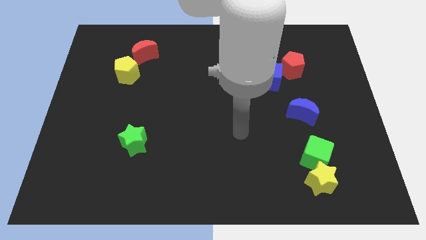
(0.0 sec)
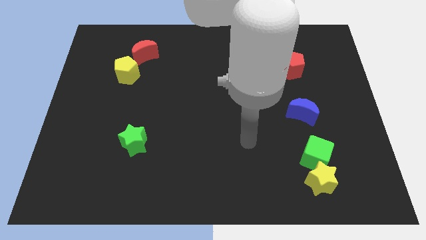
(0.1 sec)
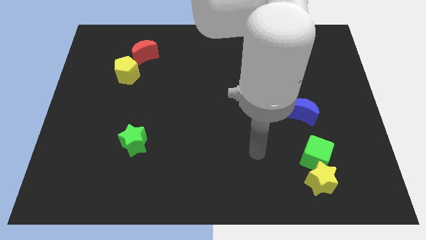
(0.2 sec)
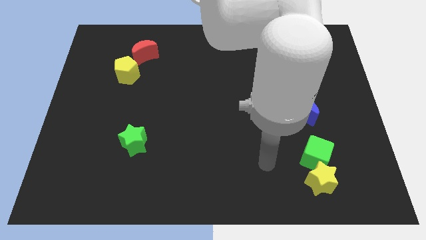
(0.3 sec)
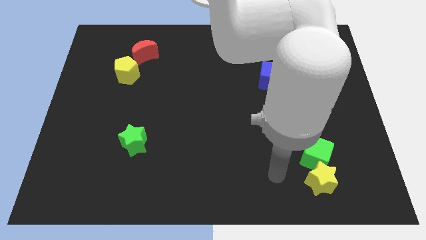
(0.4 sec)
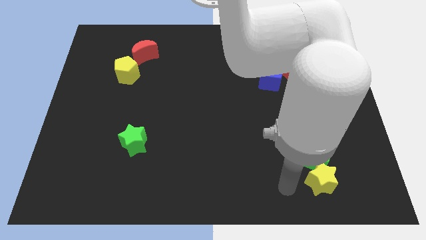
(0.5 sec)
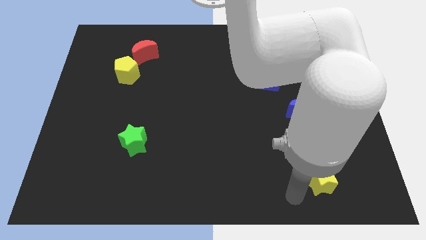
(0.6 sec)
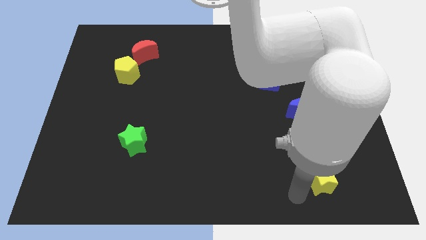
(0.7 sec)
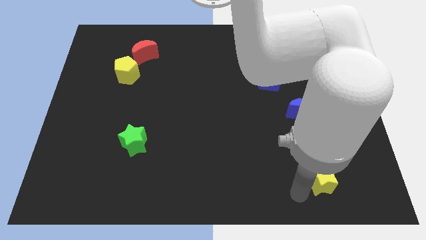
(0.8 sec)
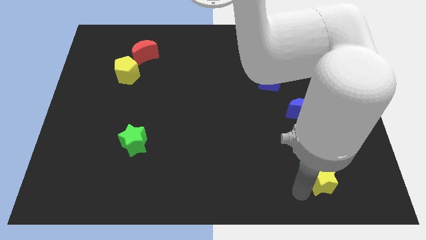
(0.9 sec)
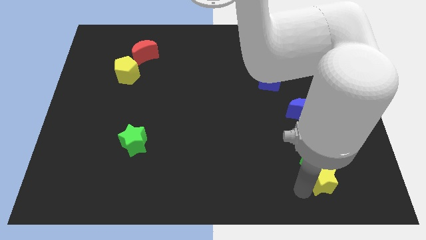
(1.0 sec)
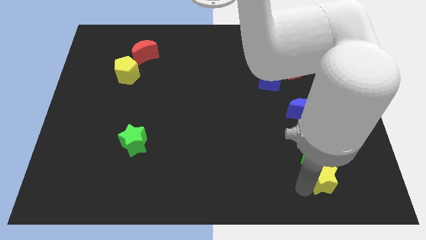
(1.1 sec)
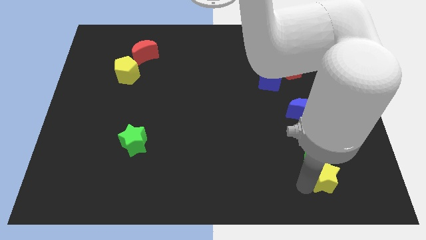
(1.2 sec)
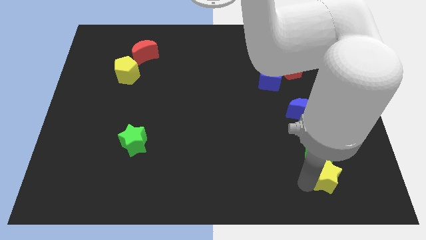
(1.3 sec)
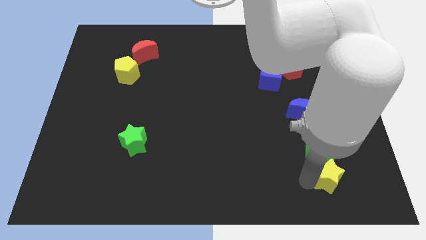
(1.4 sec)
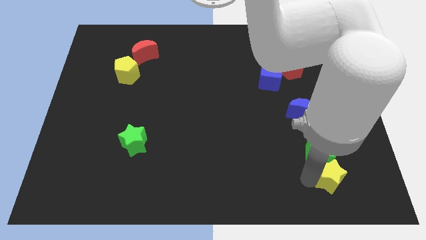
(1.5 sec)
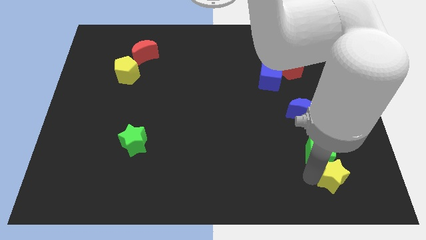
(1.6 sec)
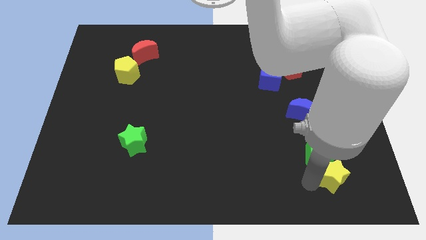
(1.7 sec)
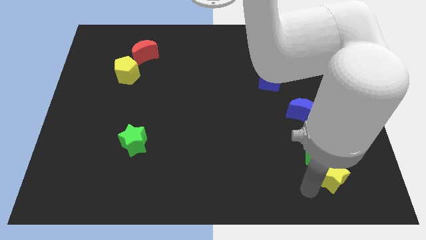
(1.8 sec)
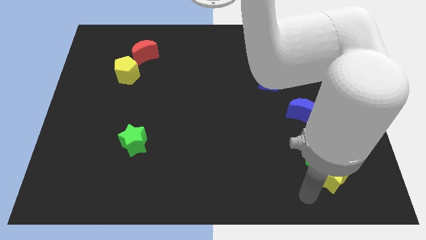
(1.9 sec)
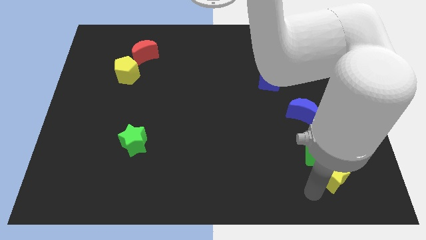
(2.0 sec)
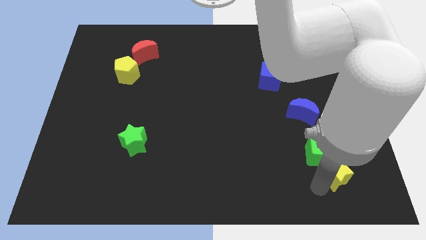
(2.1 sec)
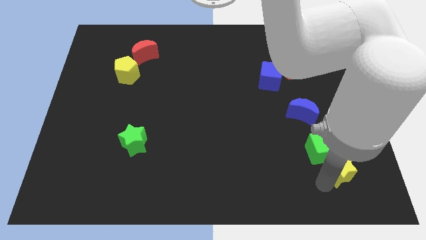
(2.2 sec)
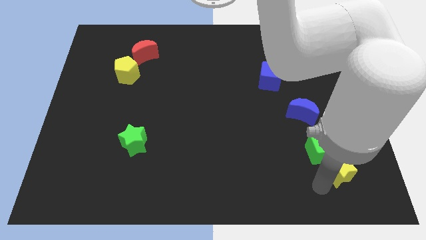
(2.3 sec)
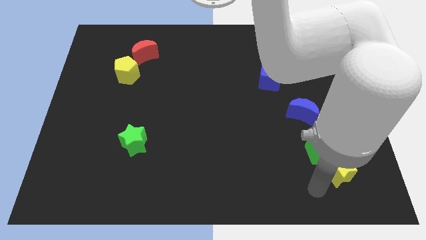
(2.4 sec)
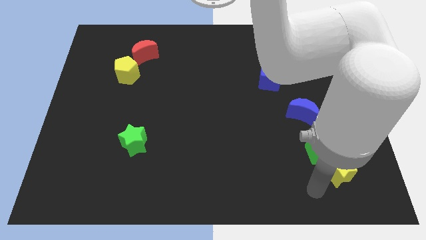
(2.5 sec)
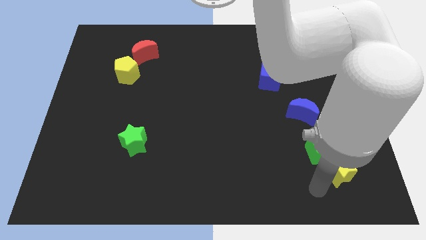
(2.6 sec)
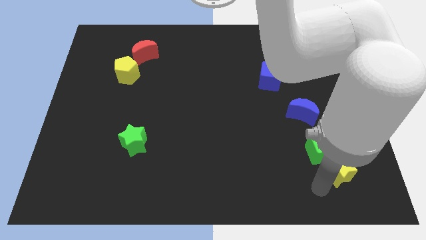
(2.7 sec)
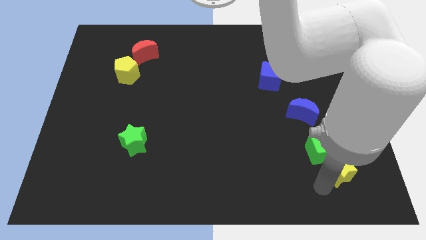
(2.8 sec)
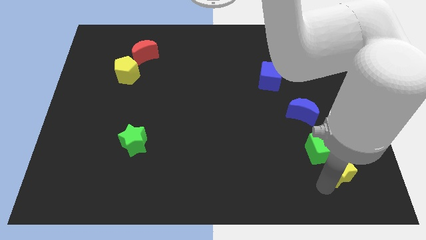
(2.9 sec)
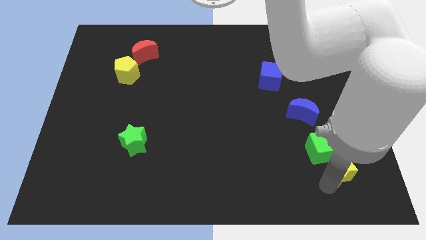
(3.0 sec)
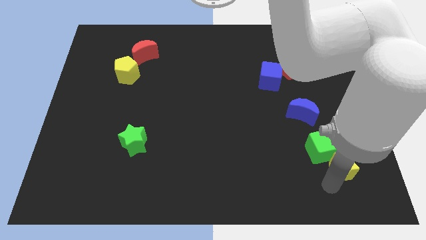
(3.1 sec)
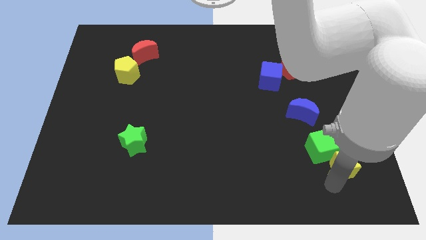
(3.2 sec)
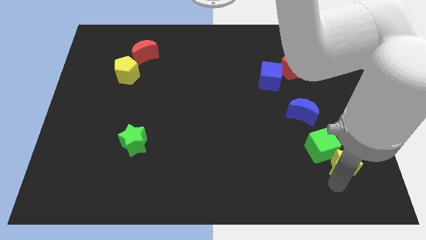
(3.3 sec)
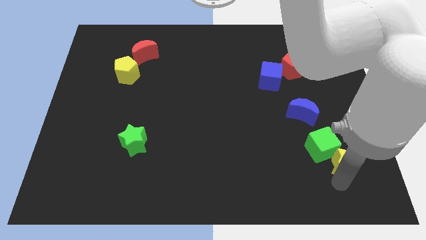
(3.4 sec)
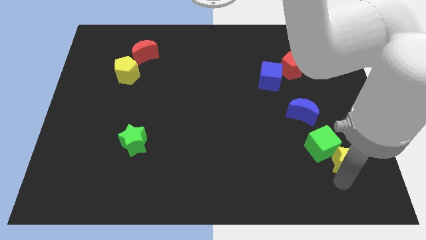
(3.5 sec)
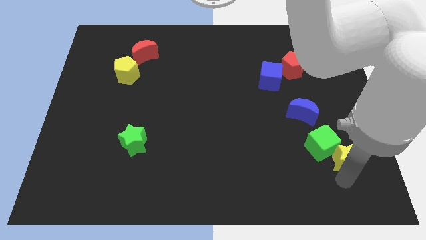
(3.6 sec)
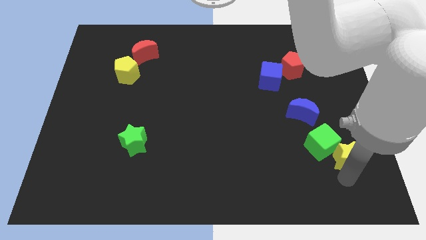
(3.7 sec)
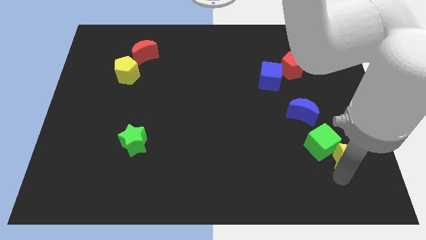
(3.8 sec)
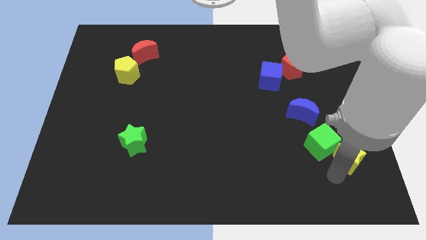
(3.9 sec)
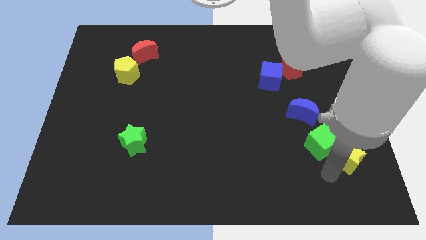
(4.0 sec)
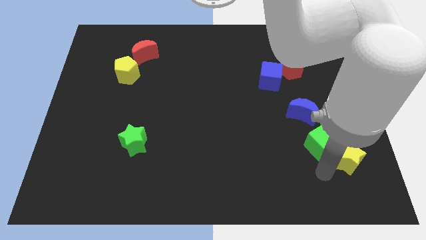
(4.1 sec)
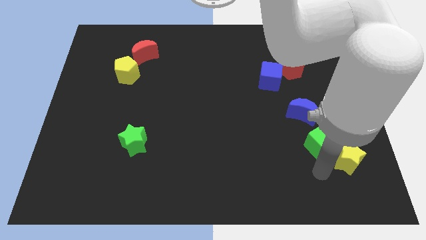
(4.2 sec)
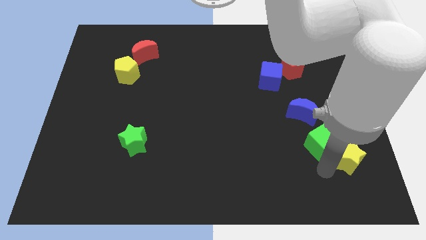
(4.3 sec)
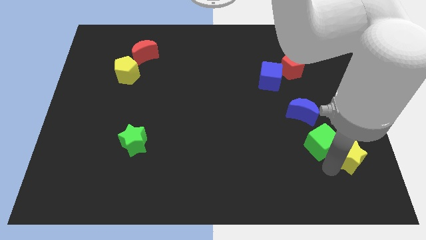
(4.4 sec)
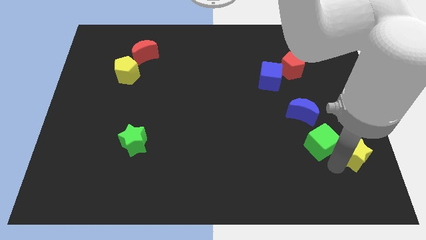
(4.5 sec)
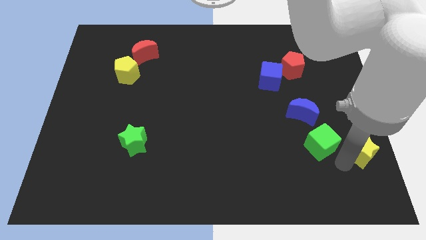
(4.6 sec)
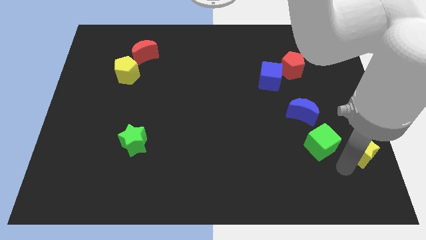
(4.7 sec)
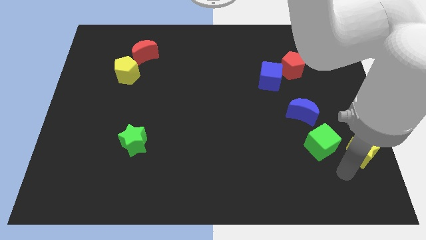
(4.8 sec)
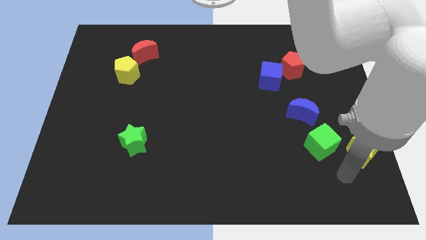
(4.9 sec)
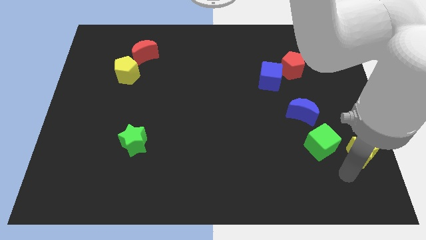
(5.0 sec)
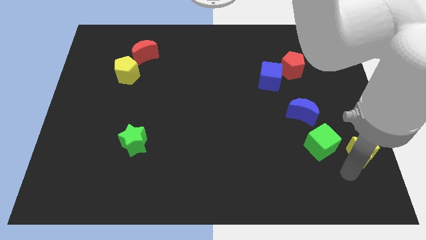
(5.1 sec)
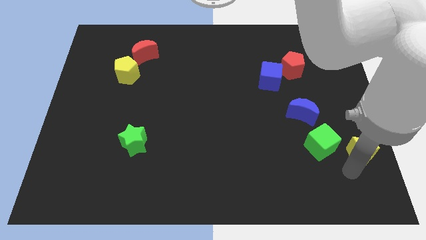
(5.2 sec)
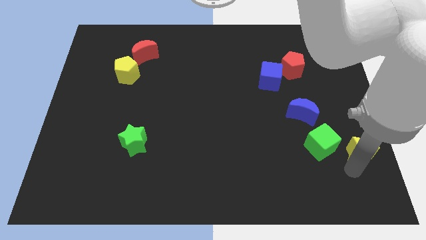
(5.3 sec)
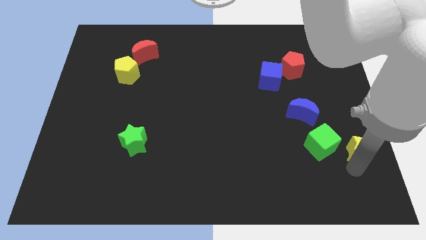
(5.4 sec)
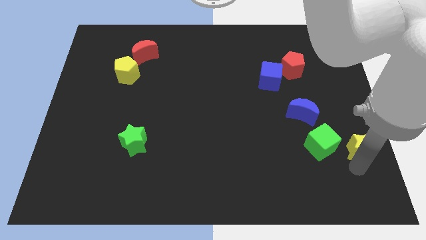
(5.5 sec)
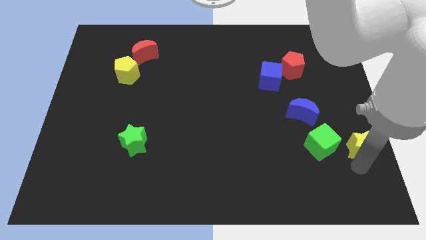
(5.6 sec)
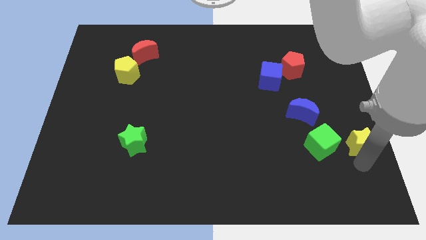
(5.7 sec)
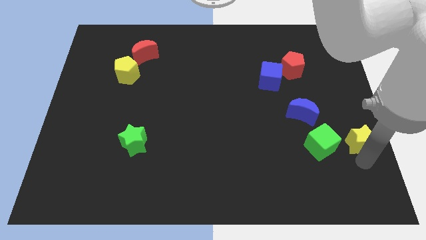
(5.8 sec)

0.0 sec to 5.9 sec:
put the yellow star to the center right
